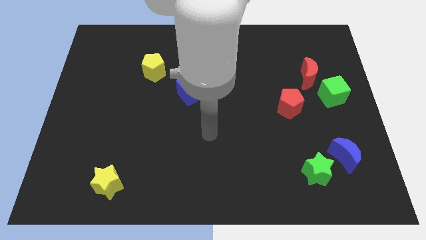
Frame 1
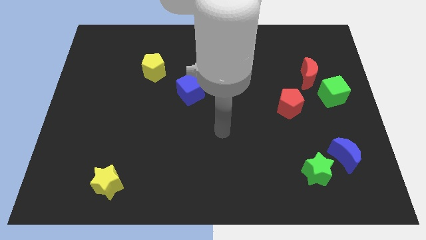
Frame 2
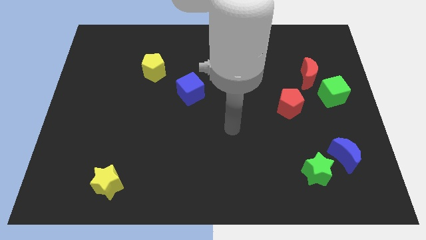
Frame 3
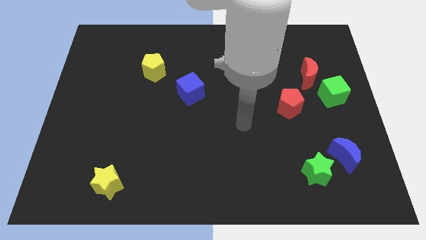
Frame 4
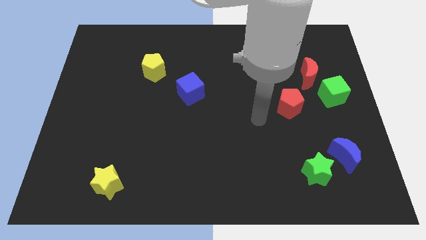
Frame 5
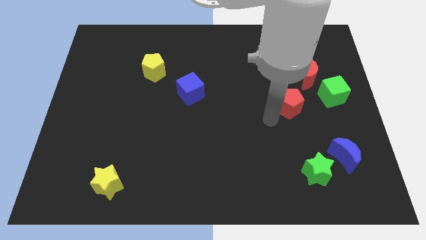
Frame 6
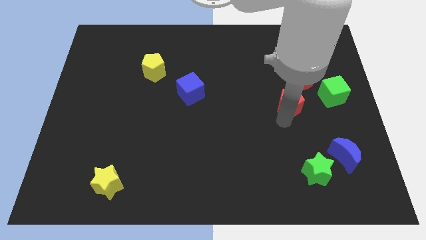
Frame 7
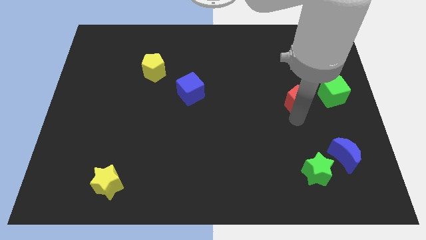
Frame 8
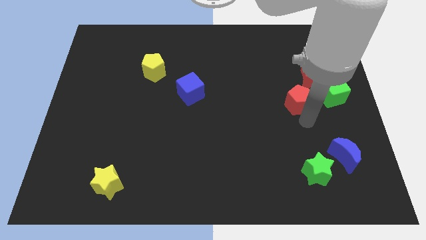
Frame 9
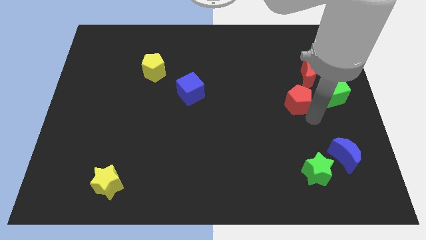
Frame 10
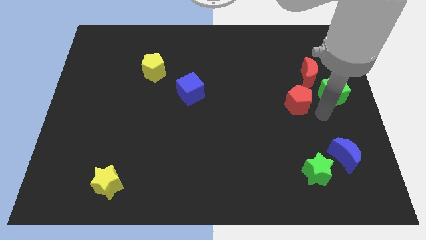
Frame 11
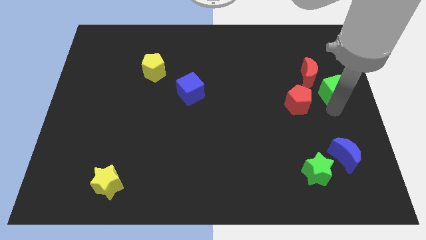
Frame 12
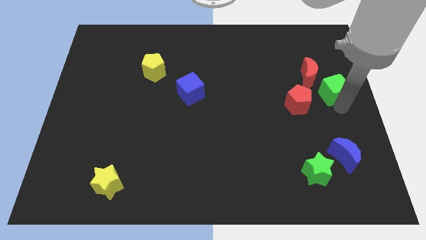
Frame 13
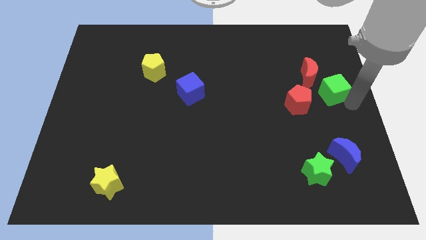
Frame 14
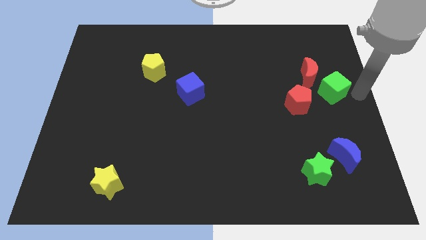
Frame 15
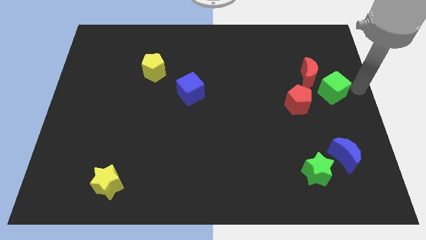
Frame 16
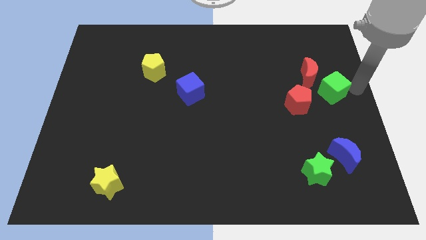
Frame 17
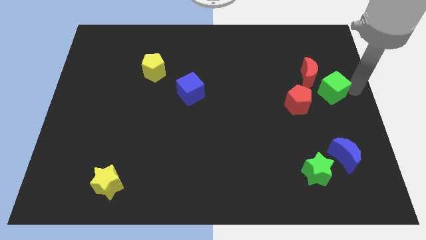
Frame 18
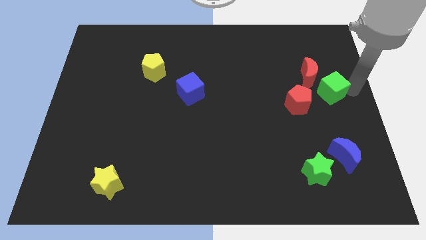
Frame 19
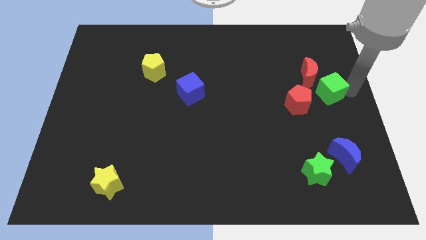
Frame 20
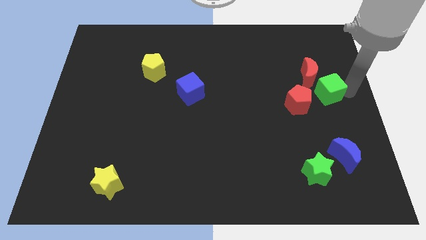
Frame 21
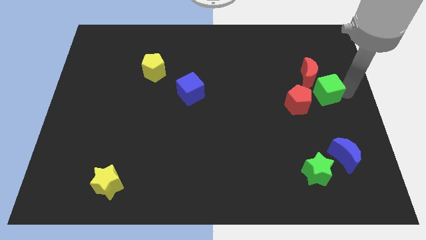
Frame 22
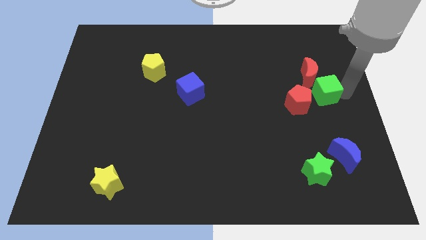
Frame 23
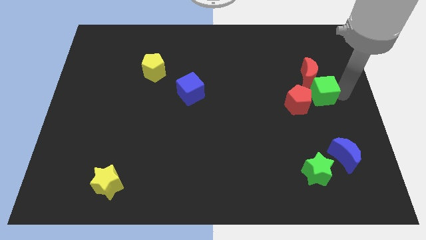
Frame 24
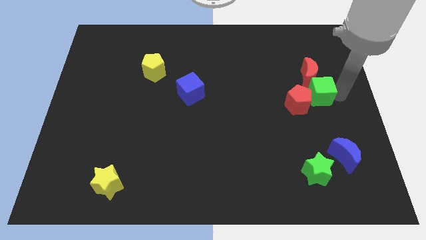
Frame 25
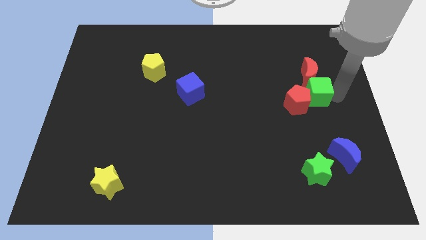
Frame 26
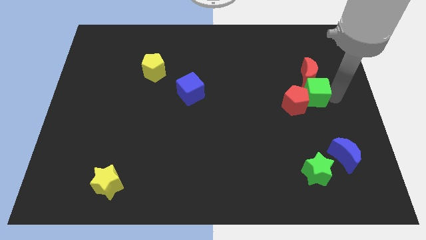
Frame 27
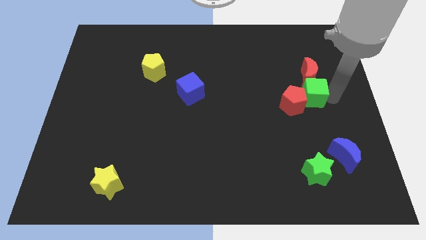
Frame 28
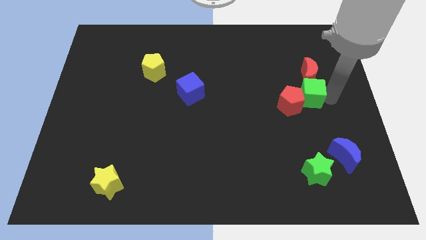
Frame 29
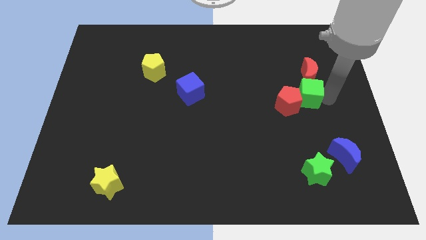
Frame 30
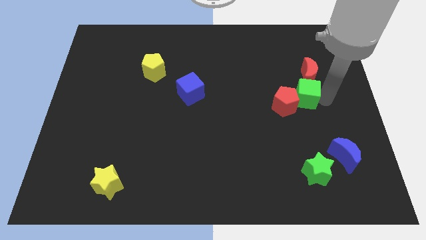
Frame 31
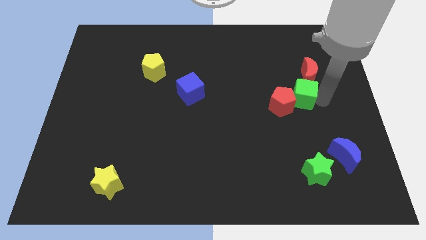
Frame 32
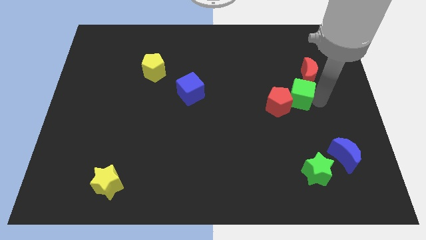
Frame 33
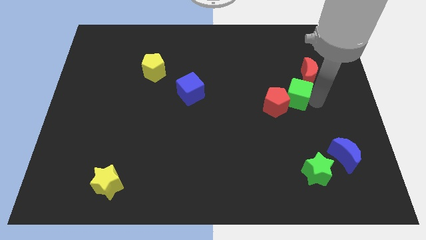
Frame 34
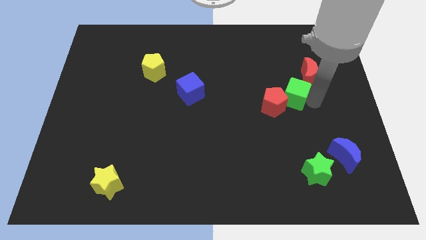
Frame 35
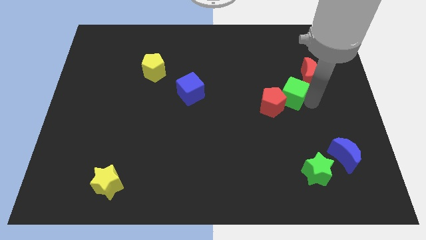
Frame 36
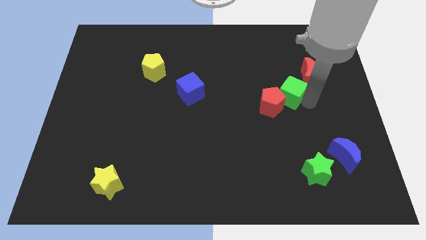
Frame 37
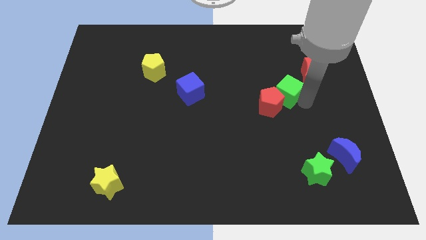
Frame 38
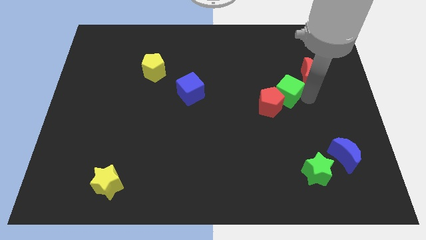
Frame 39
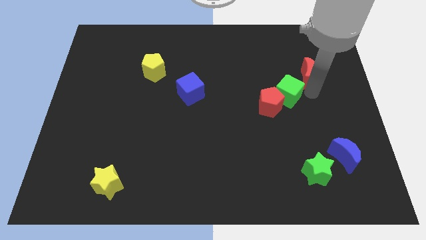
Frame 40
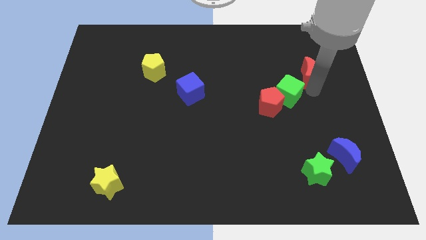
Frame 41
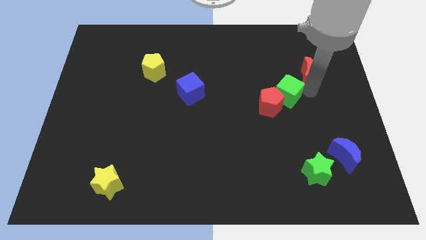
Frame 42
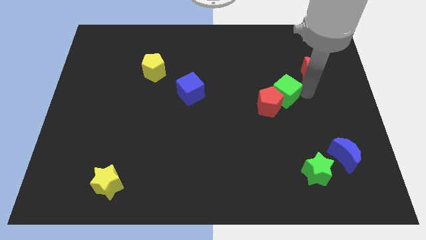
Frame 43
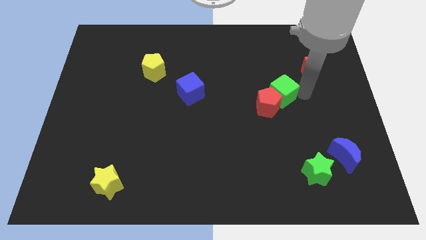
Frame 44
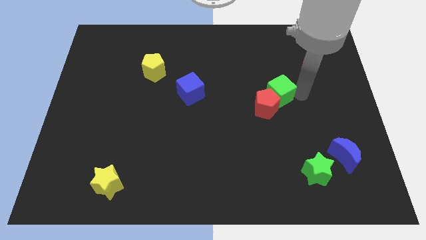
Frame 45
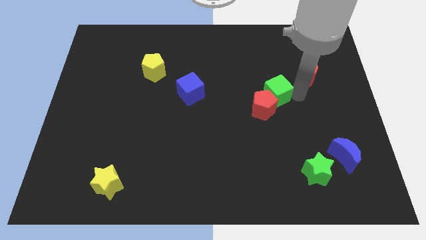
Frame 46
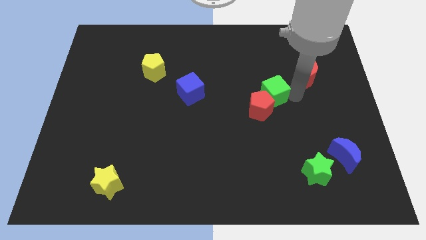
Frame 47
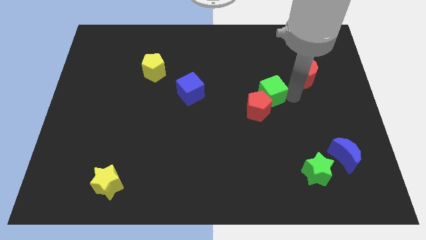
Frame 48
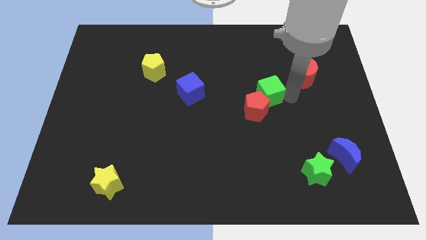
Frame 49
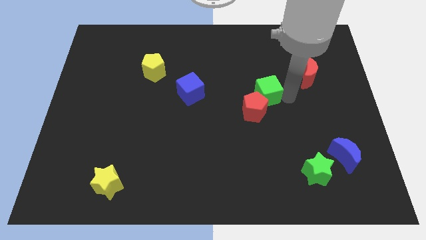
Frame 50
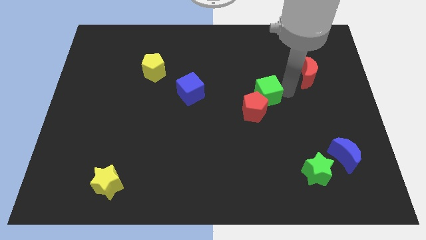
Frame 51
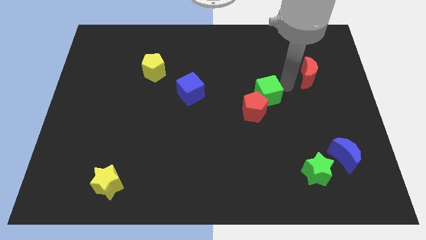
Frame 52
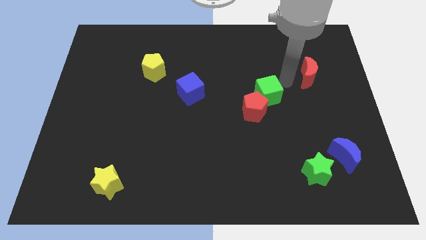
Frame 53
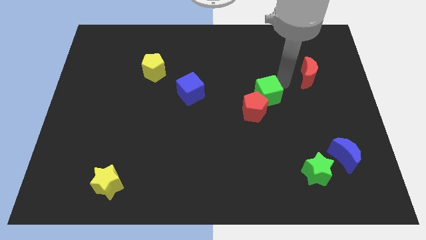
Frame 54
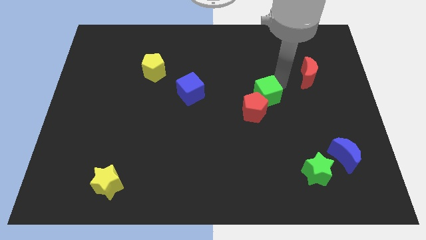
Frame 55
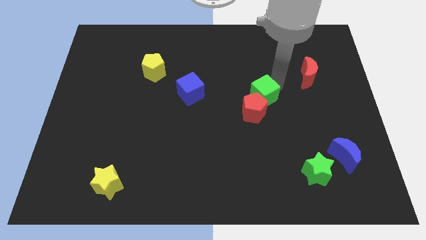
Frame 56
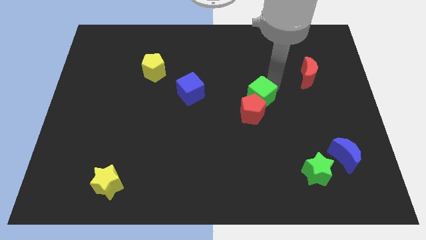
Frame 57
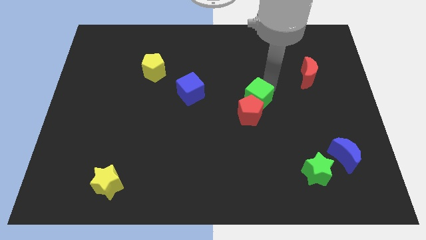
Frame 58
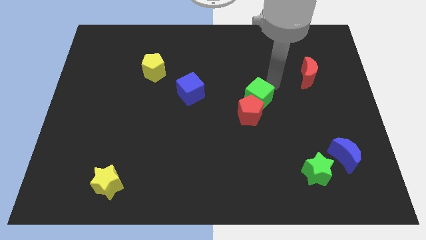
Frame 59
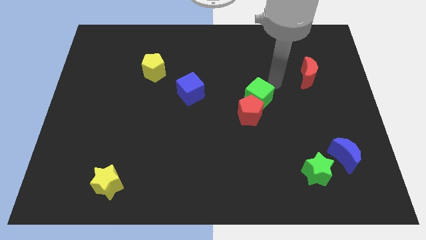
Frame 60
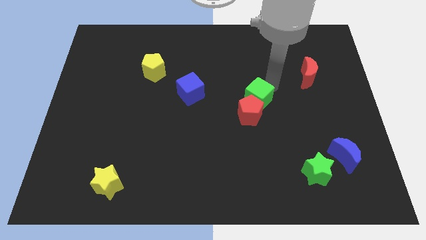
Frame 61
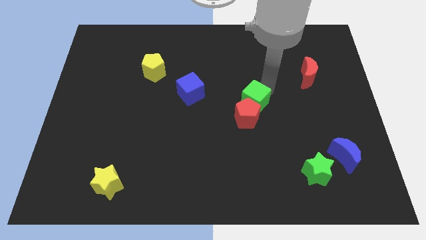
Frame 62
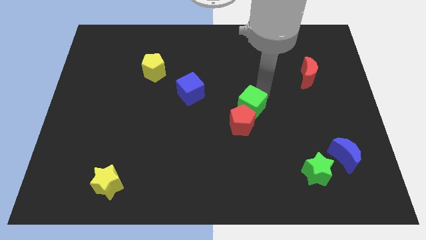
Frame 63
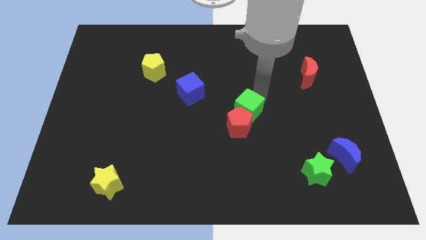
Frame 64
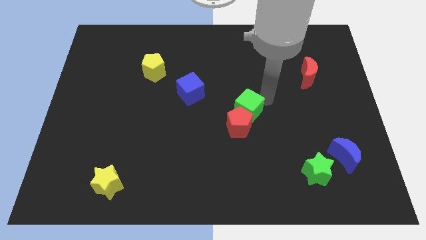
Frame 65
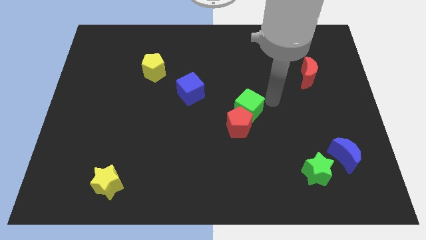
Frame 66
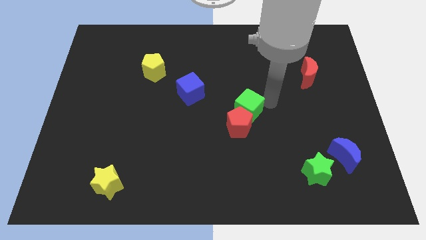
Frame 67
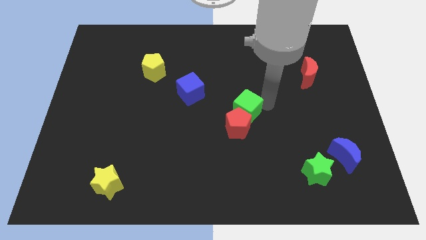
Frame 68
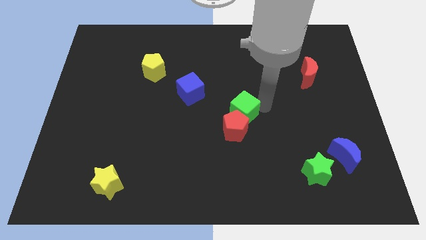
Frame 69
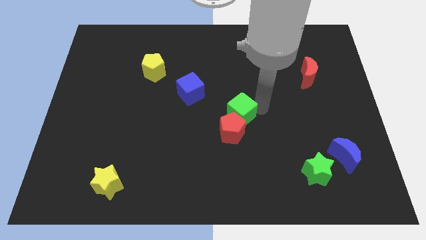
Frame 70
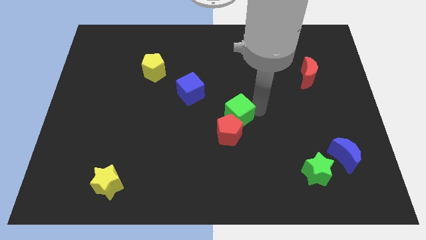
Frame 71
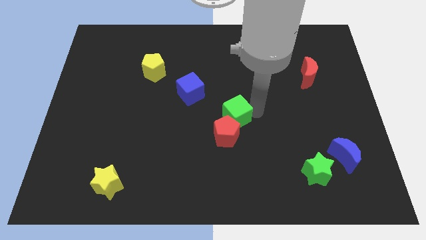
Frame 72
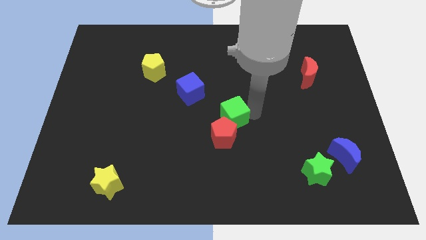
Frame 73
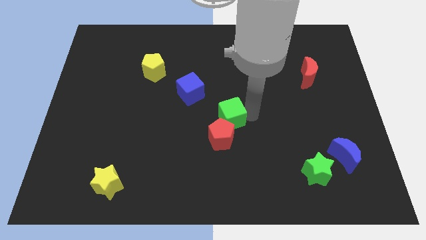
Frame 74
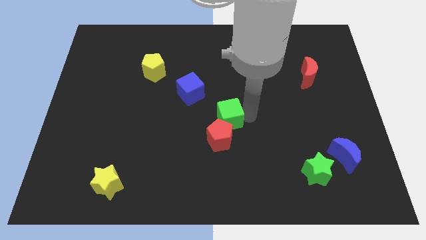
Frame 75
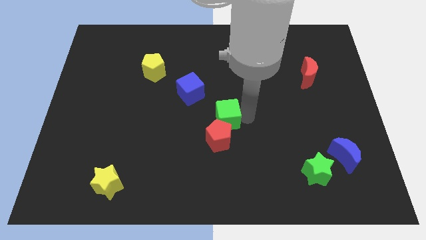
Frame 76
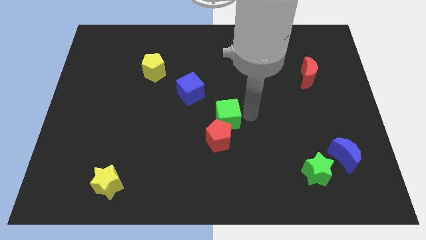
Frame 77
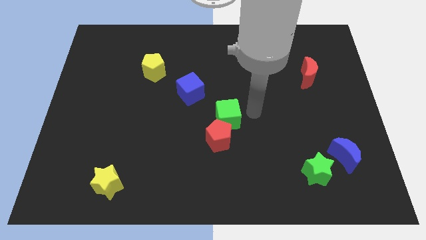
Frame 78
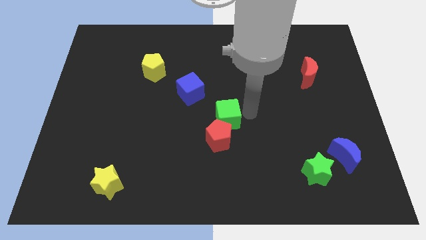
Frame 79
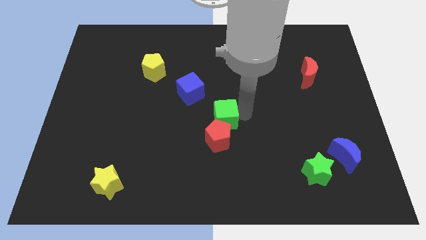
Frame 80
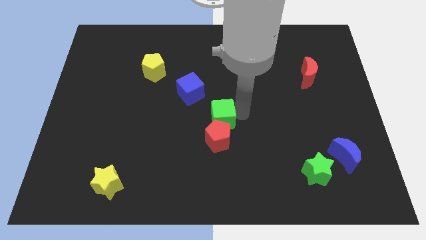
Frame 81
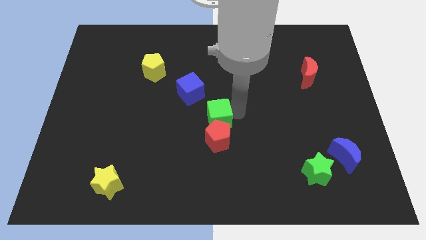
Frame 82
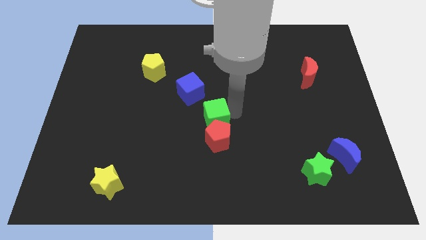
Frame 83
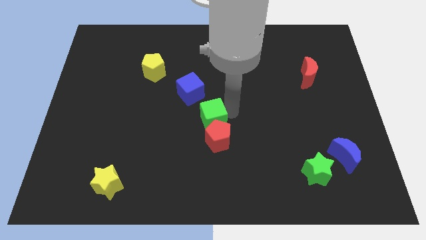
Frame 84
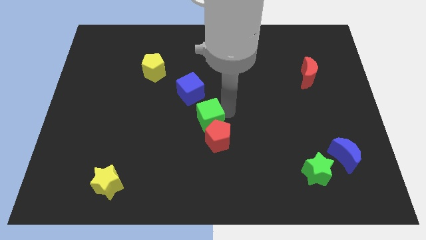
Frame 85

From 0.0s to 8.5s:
move the green cube to the bottom of the blue cube
